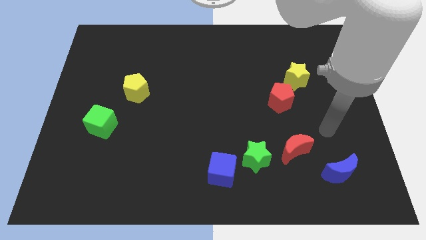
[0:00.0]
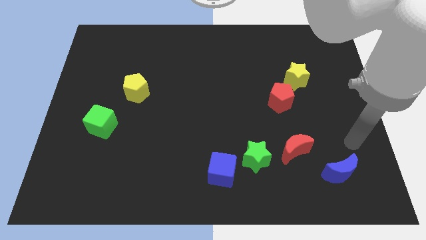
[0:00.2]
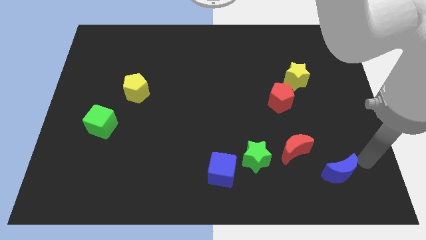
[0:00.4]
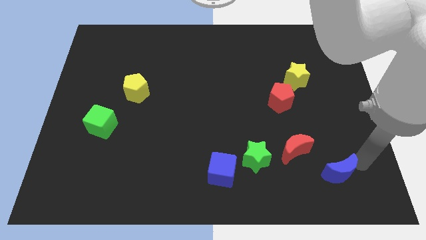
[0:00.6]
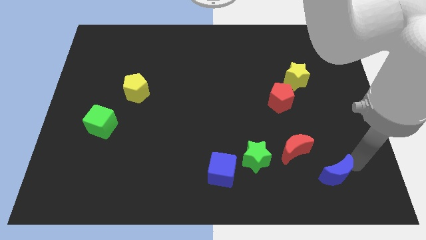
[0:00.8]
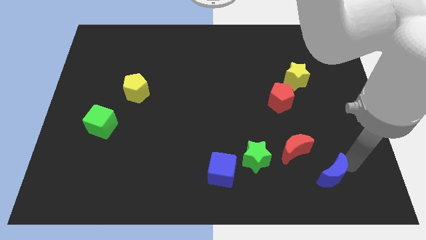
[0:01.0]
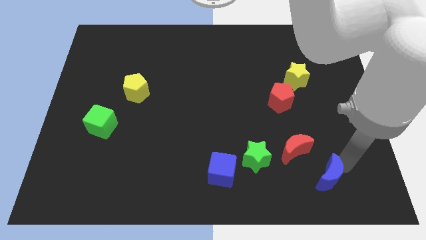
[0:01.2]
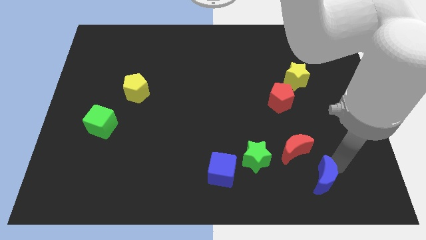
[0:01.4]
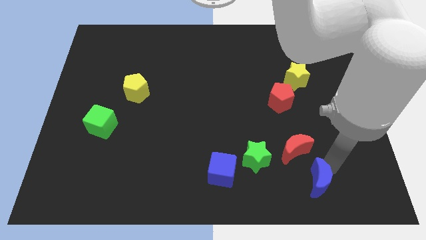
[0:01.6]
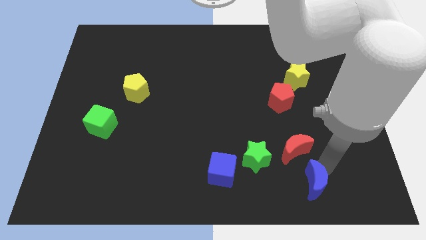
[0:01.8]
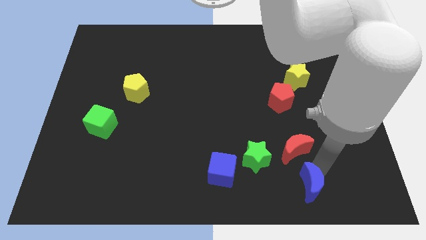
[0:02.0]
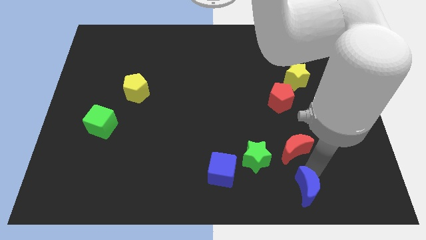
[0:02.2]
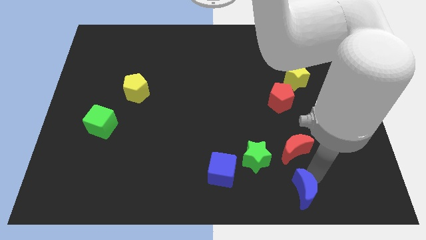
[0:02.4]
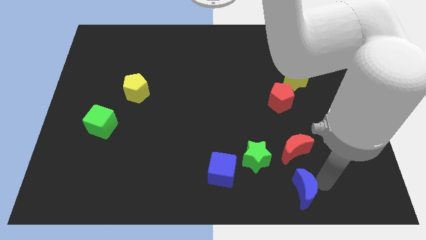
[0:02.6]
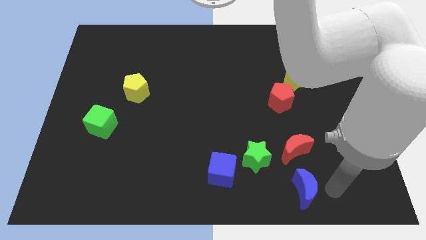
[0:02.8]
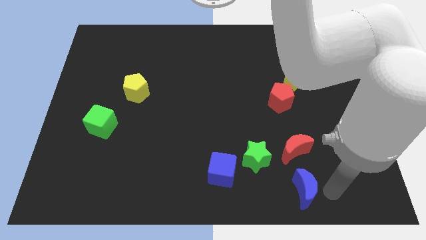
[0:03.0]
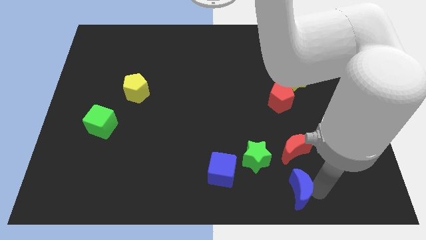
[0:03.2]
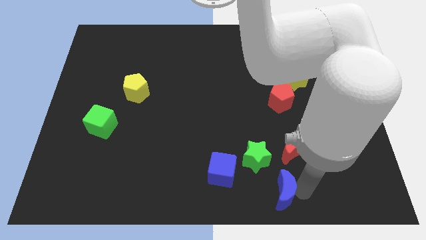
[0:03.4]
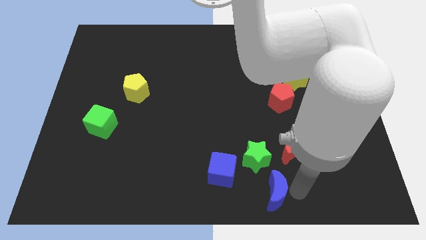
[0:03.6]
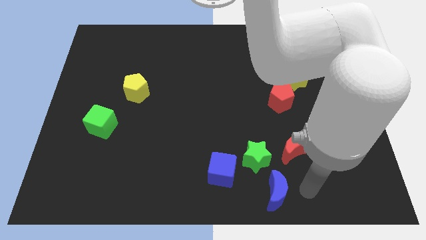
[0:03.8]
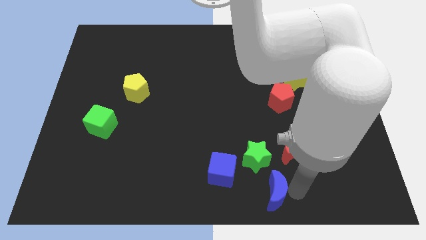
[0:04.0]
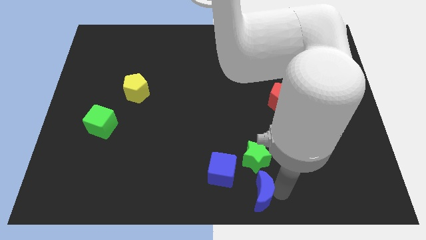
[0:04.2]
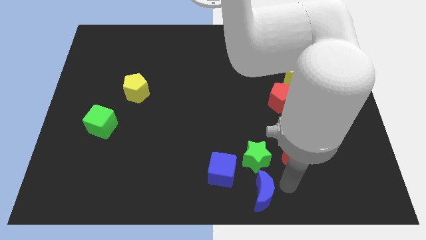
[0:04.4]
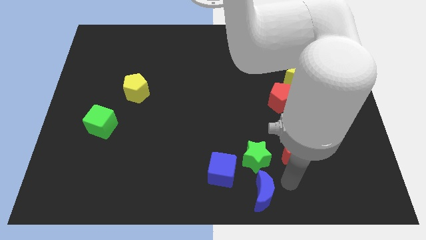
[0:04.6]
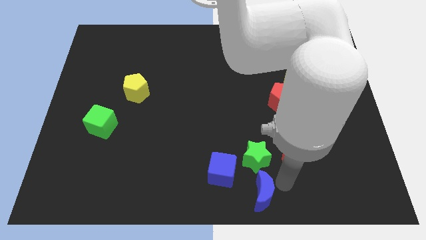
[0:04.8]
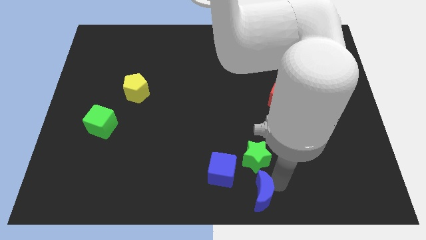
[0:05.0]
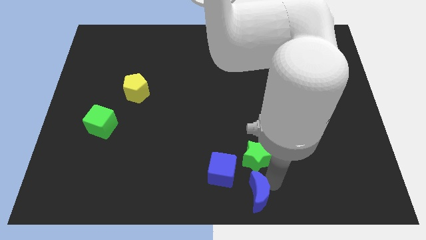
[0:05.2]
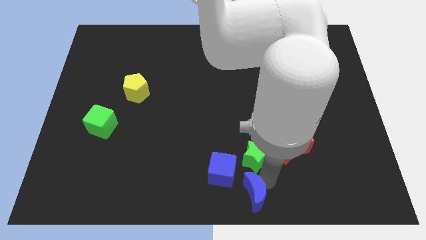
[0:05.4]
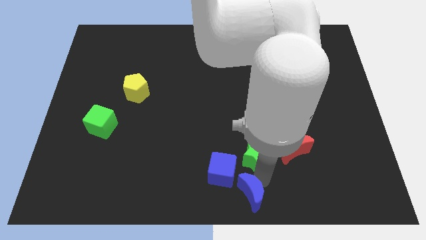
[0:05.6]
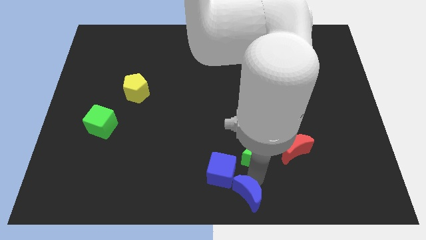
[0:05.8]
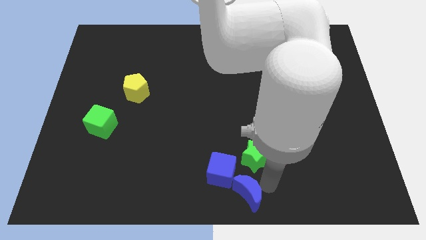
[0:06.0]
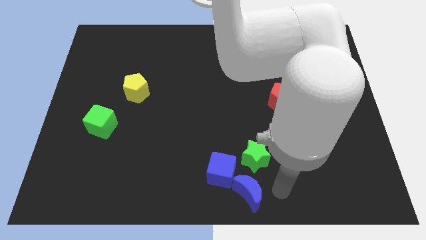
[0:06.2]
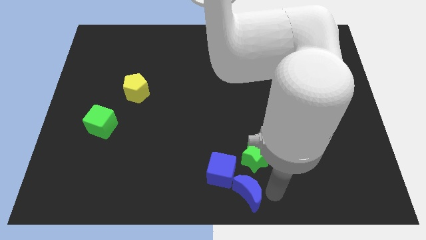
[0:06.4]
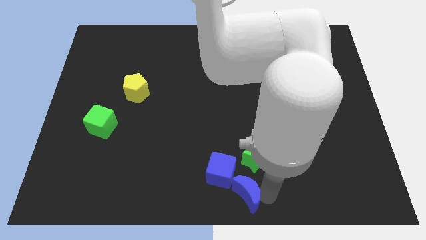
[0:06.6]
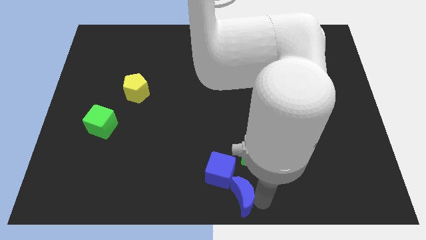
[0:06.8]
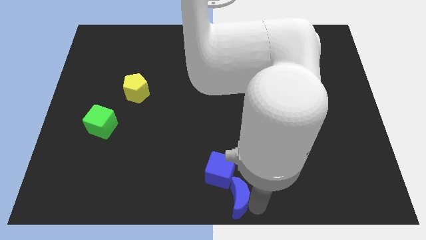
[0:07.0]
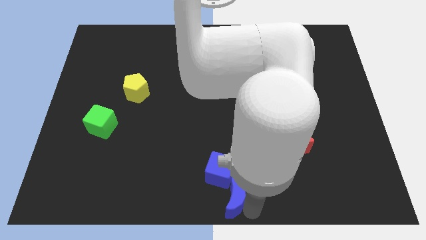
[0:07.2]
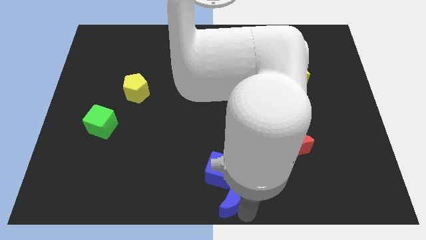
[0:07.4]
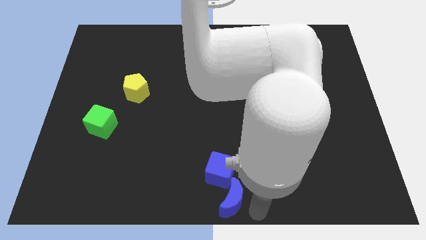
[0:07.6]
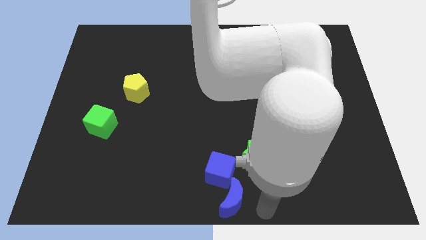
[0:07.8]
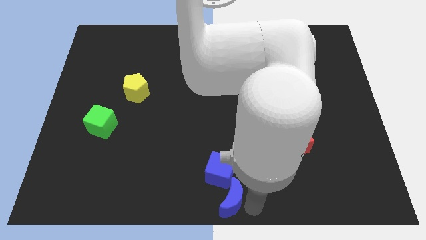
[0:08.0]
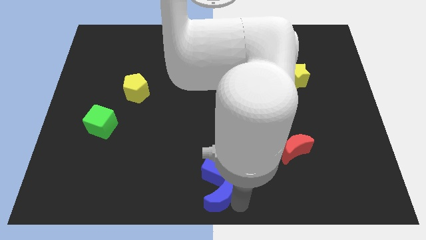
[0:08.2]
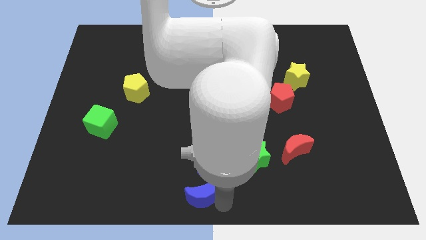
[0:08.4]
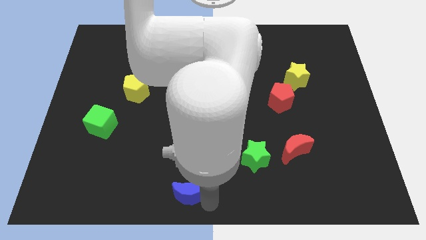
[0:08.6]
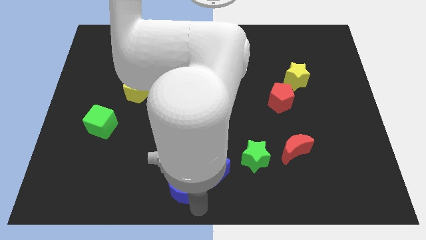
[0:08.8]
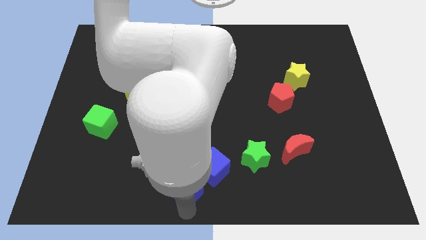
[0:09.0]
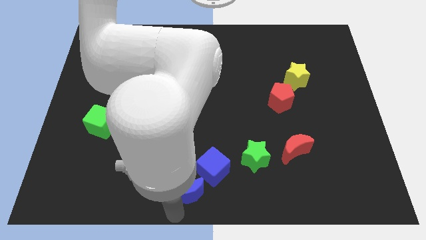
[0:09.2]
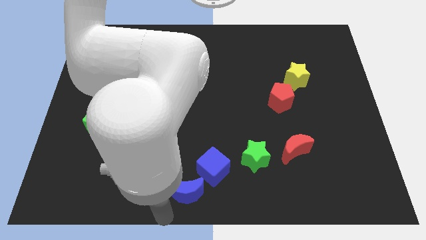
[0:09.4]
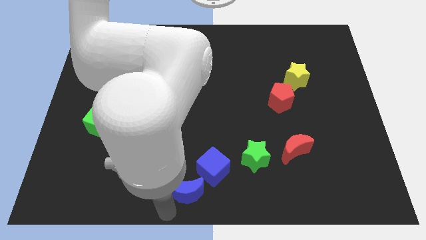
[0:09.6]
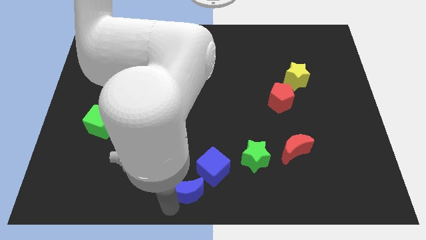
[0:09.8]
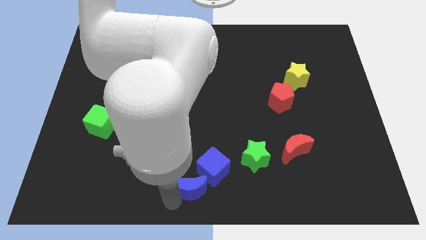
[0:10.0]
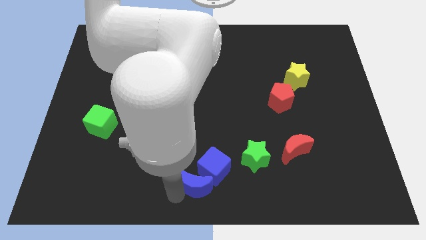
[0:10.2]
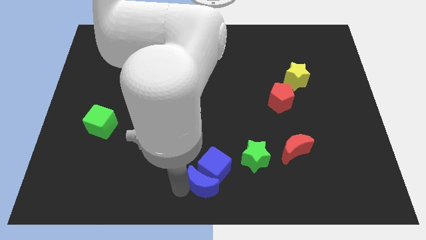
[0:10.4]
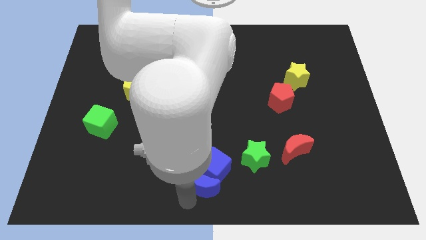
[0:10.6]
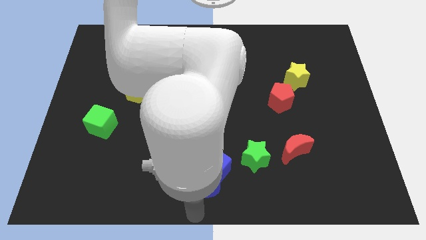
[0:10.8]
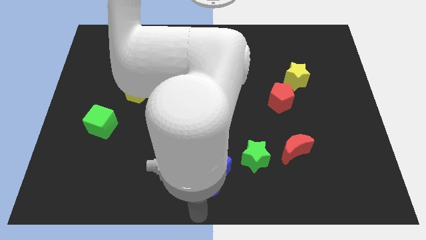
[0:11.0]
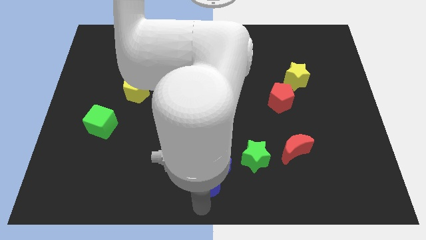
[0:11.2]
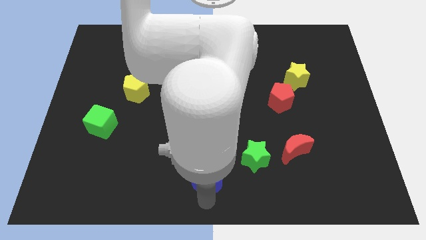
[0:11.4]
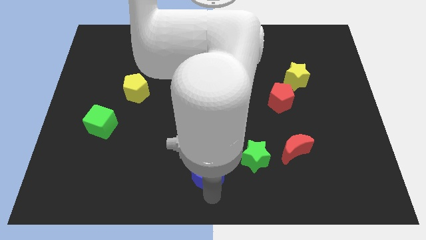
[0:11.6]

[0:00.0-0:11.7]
push the blue moon just left of the green star

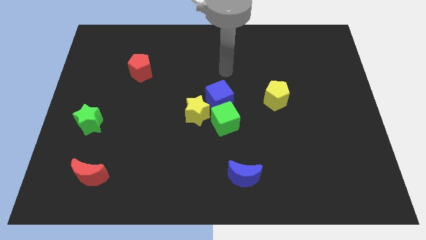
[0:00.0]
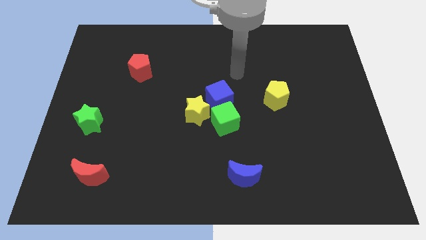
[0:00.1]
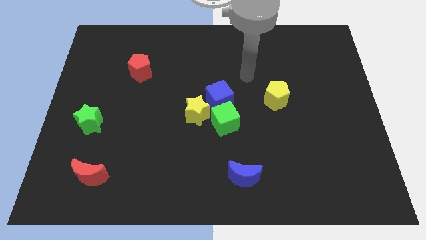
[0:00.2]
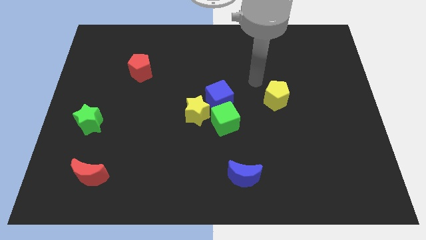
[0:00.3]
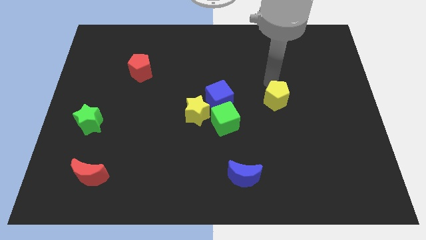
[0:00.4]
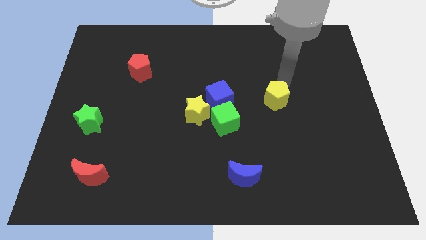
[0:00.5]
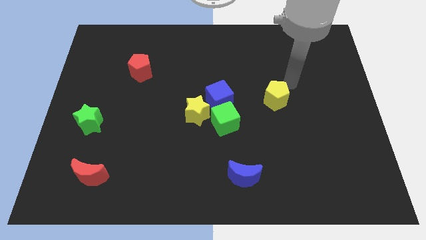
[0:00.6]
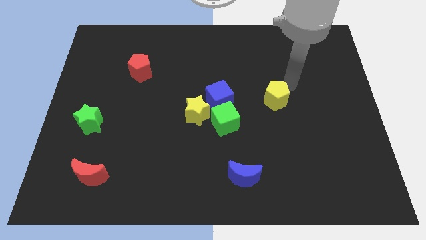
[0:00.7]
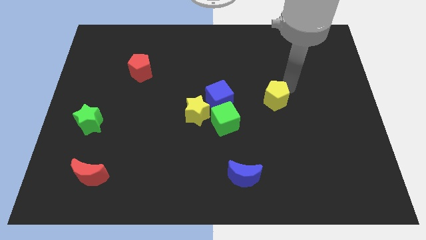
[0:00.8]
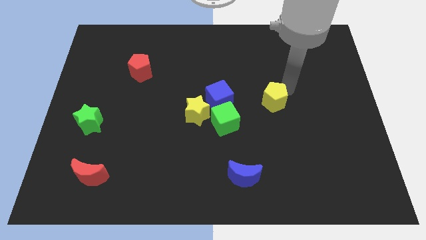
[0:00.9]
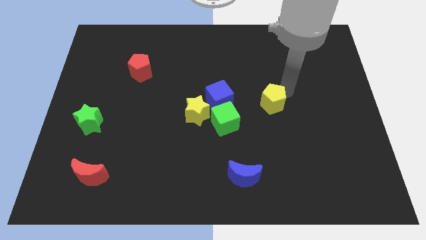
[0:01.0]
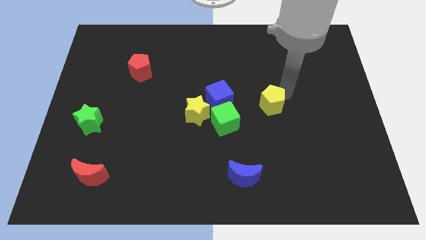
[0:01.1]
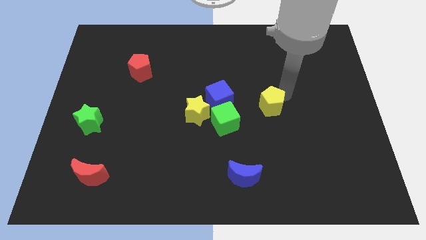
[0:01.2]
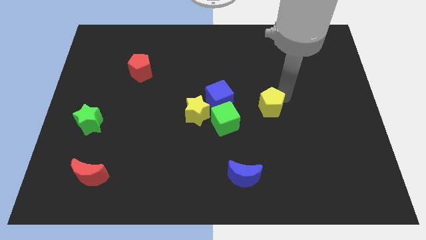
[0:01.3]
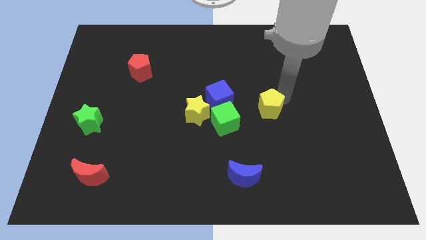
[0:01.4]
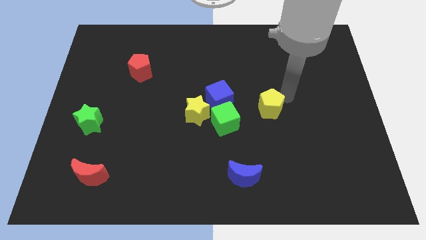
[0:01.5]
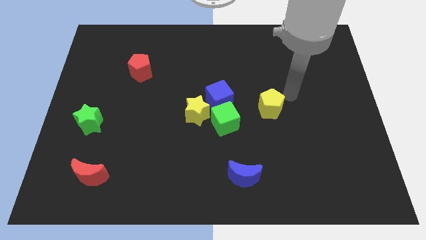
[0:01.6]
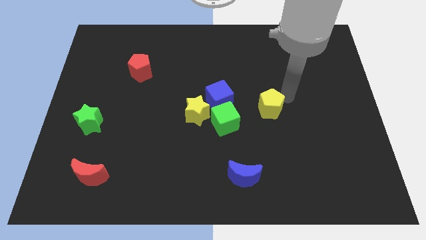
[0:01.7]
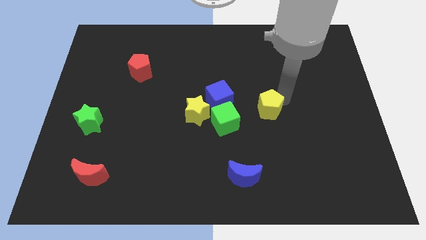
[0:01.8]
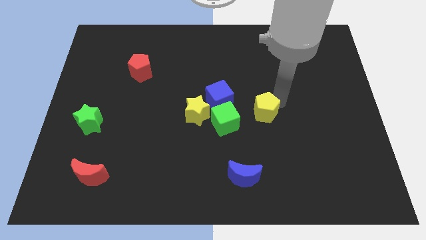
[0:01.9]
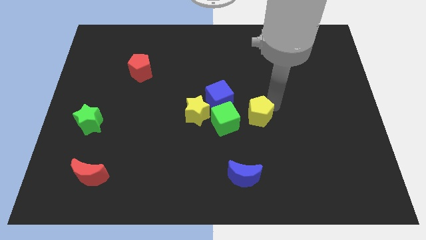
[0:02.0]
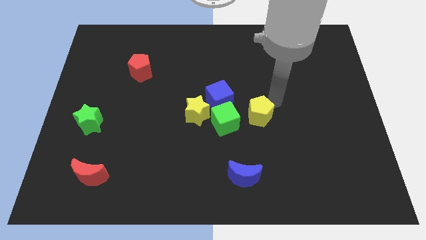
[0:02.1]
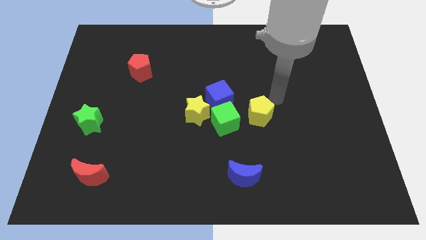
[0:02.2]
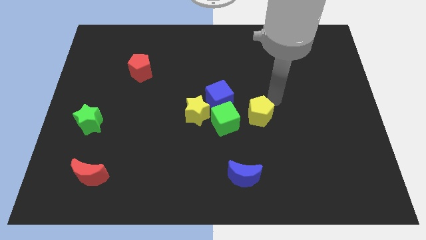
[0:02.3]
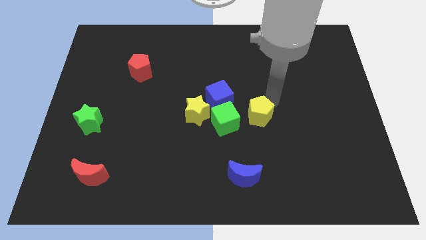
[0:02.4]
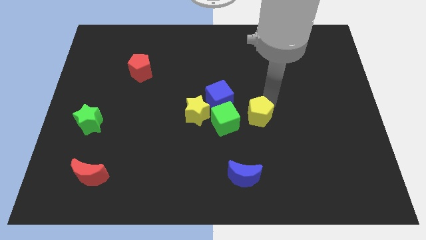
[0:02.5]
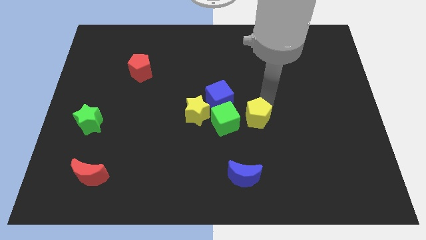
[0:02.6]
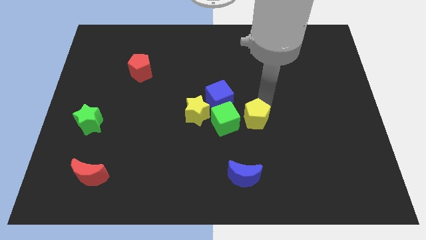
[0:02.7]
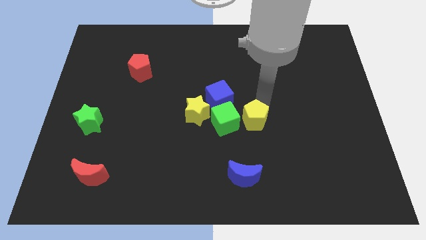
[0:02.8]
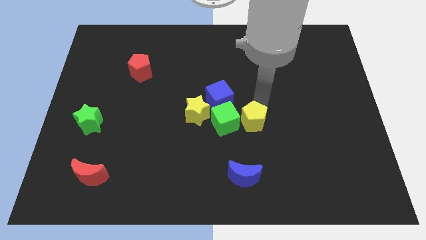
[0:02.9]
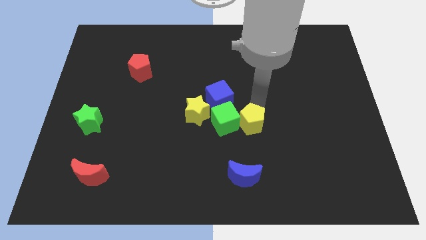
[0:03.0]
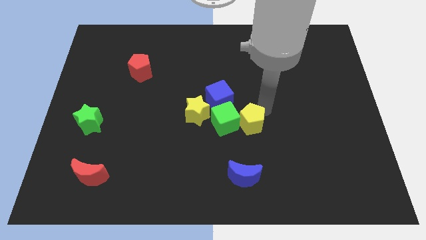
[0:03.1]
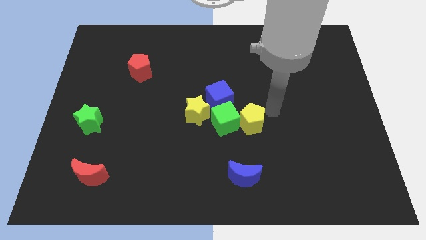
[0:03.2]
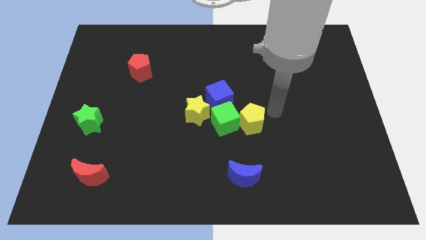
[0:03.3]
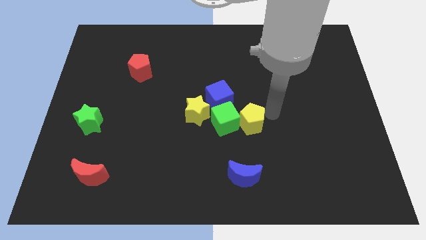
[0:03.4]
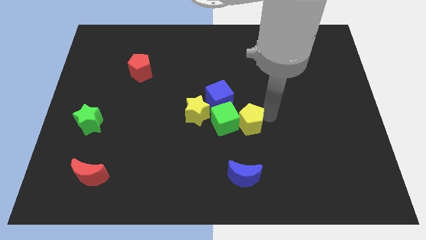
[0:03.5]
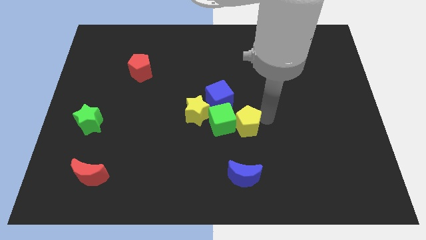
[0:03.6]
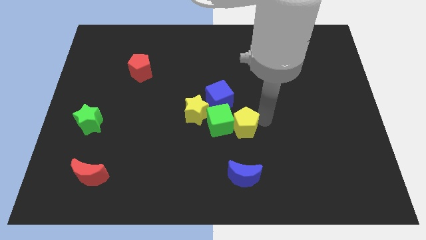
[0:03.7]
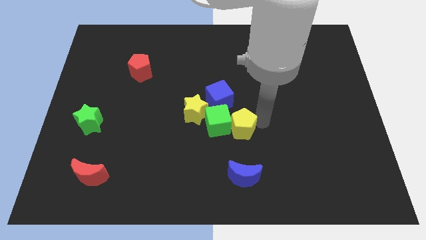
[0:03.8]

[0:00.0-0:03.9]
push the yellow pentagon below the blue cube
